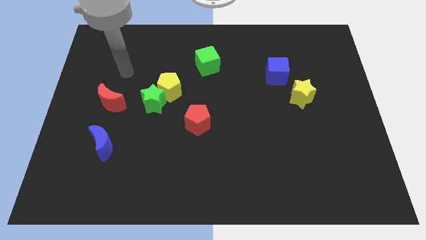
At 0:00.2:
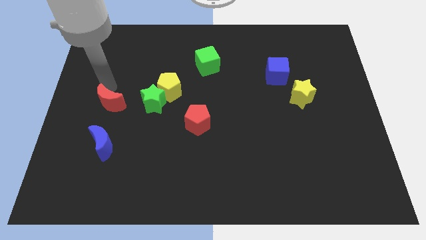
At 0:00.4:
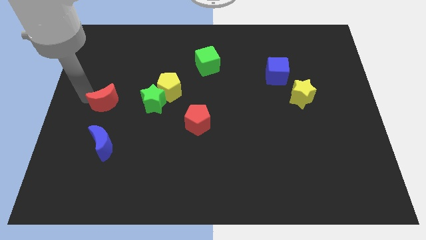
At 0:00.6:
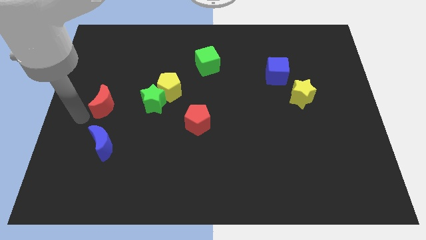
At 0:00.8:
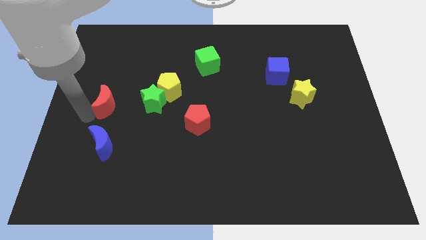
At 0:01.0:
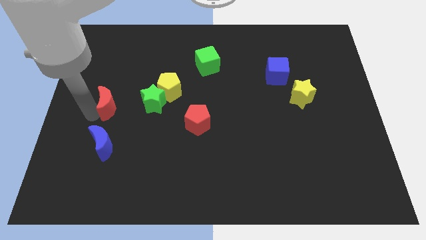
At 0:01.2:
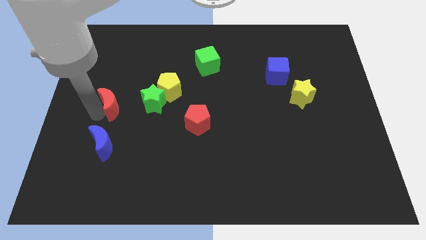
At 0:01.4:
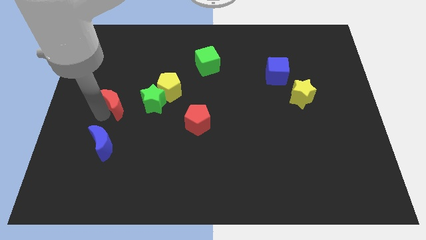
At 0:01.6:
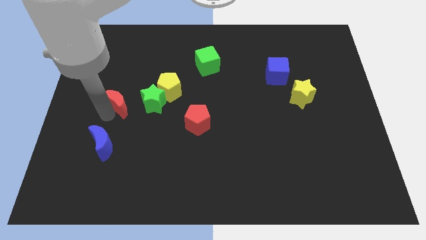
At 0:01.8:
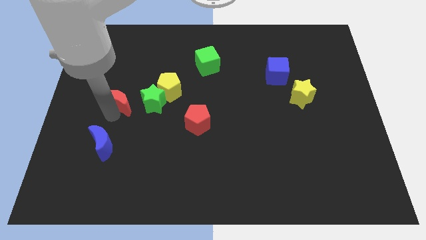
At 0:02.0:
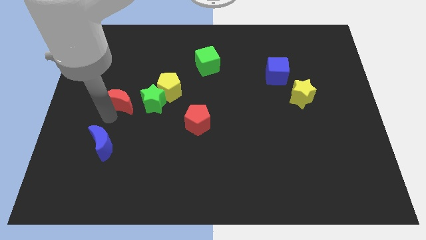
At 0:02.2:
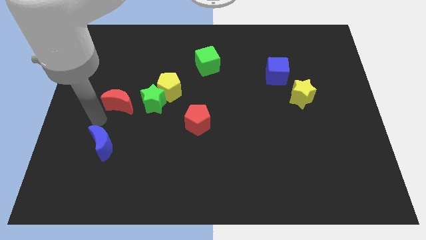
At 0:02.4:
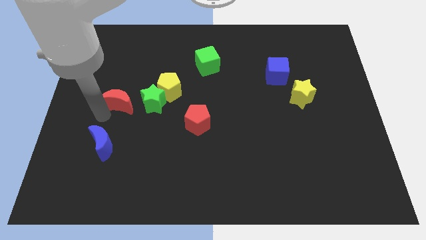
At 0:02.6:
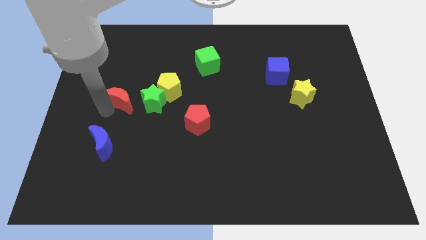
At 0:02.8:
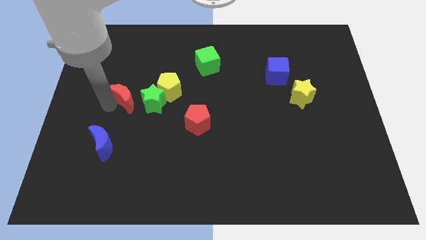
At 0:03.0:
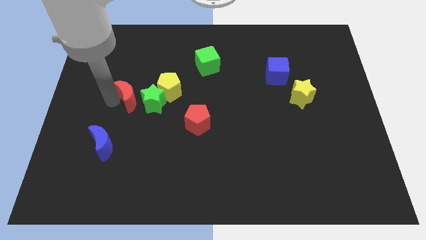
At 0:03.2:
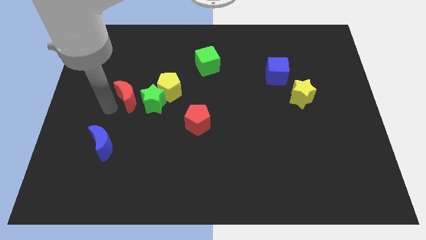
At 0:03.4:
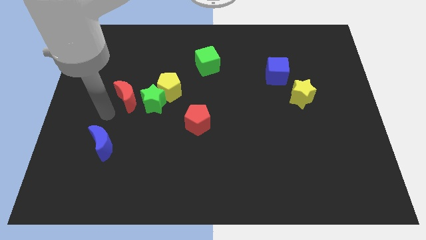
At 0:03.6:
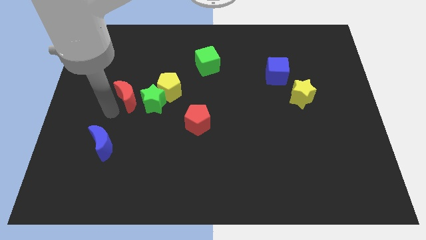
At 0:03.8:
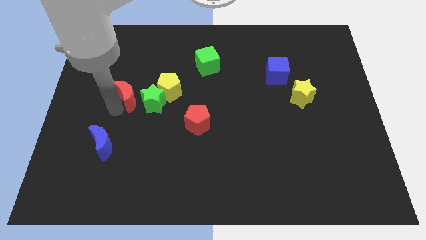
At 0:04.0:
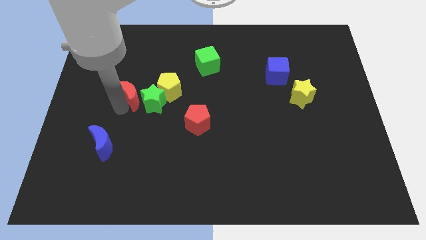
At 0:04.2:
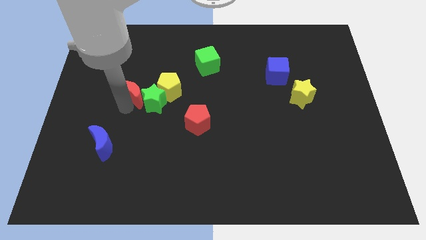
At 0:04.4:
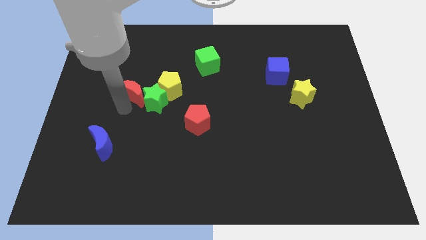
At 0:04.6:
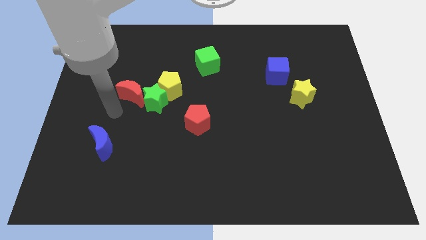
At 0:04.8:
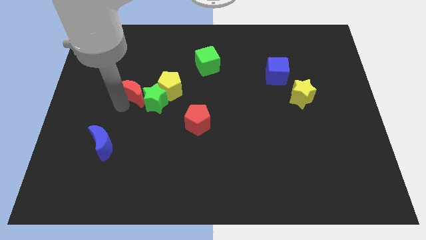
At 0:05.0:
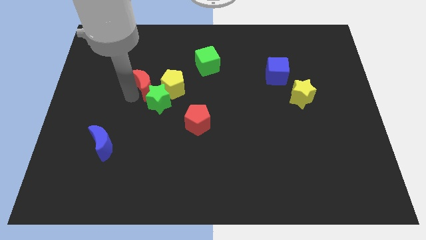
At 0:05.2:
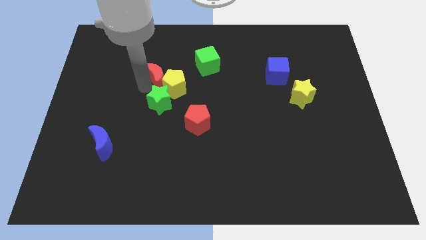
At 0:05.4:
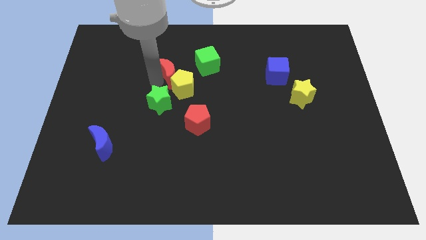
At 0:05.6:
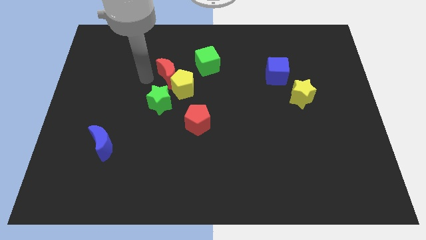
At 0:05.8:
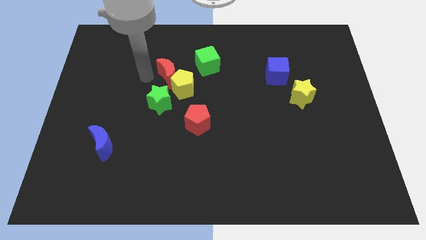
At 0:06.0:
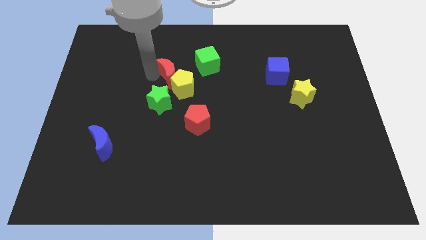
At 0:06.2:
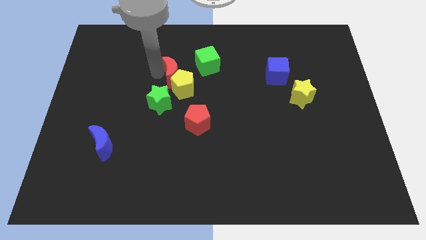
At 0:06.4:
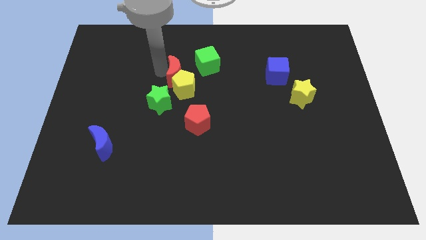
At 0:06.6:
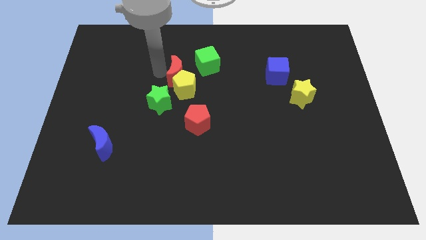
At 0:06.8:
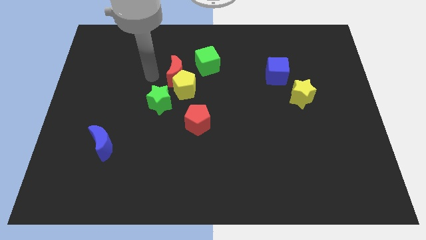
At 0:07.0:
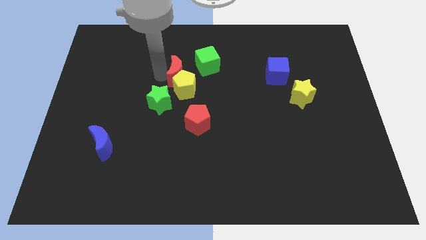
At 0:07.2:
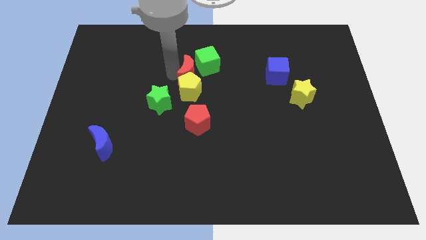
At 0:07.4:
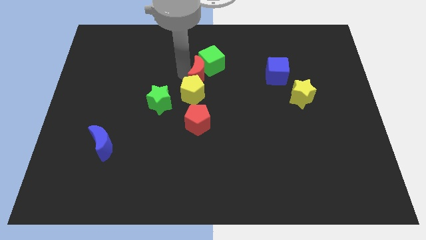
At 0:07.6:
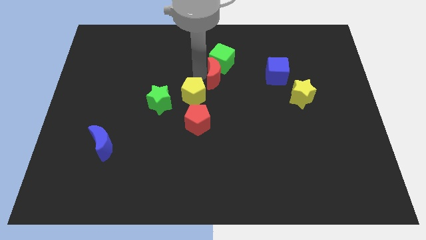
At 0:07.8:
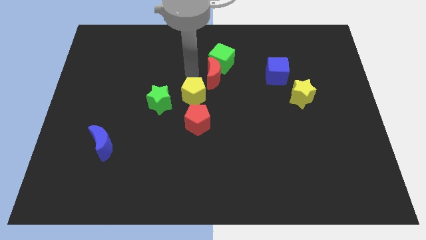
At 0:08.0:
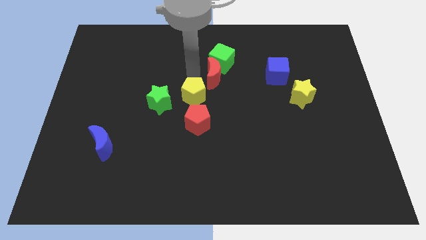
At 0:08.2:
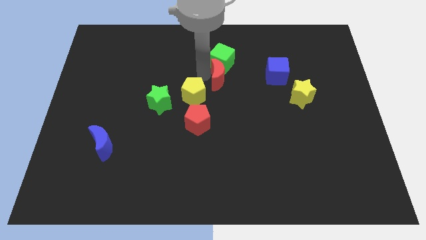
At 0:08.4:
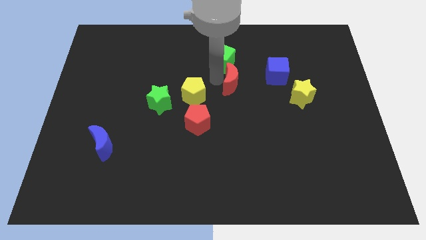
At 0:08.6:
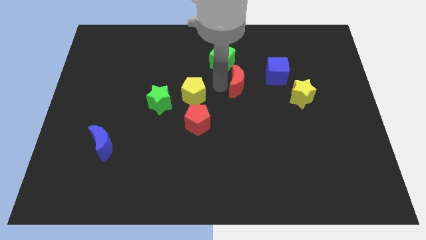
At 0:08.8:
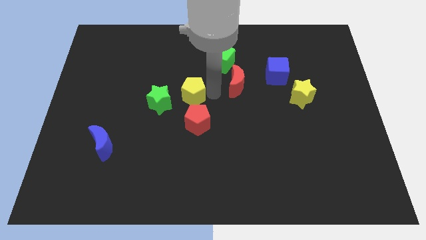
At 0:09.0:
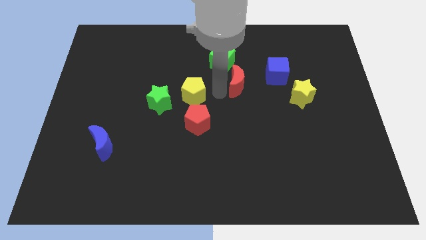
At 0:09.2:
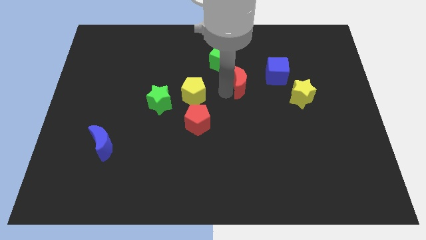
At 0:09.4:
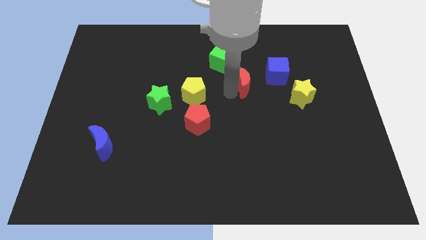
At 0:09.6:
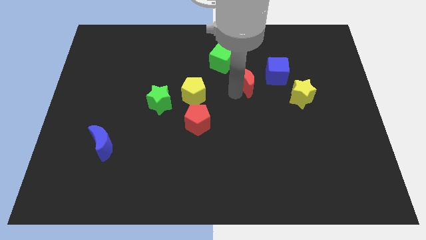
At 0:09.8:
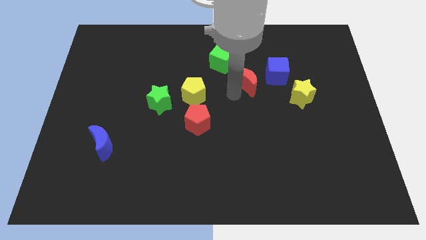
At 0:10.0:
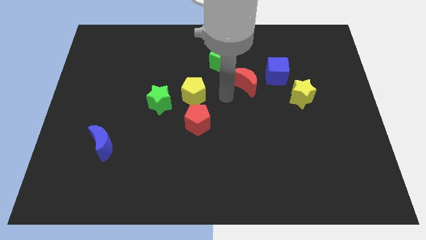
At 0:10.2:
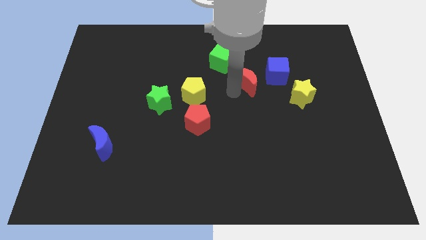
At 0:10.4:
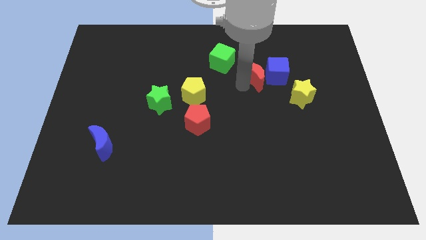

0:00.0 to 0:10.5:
push the red moon next to the blue cube

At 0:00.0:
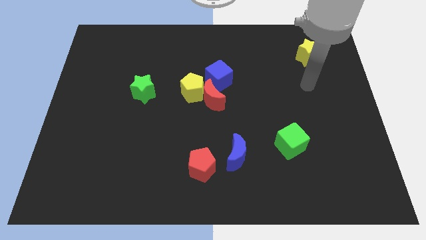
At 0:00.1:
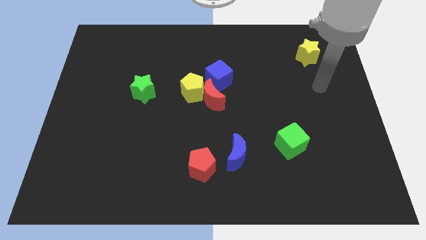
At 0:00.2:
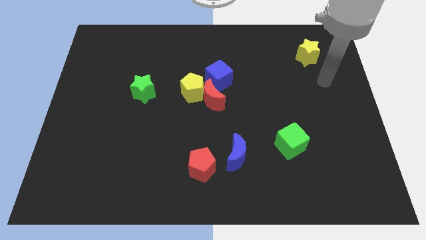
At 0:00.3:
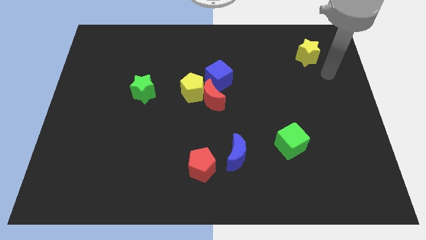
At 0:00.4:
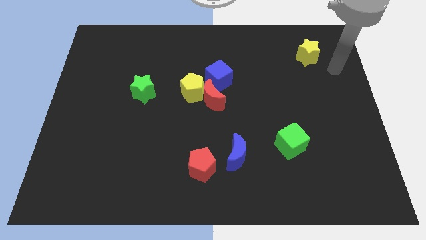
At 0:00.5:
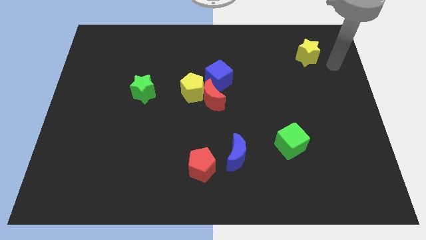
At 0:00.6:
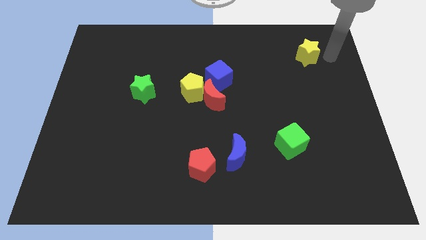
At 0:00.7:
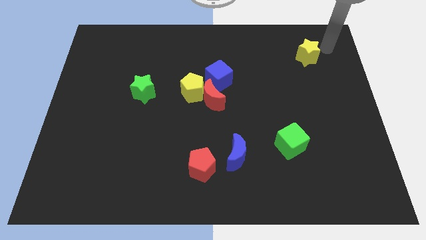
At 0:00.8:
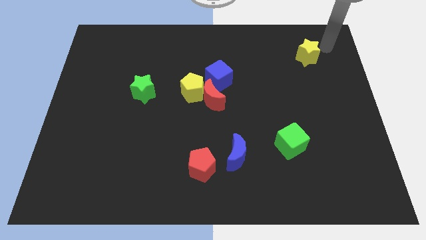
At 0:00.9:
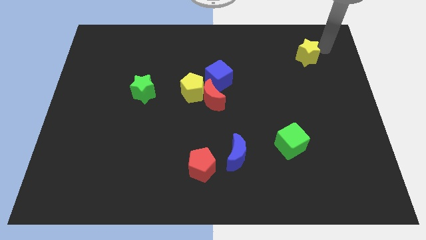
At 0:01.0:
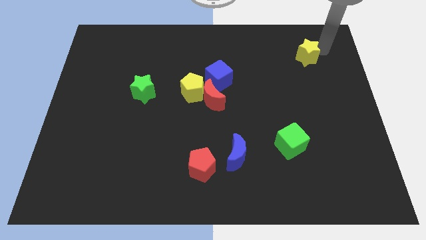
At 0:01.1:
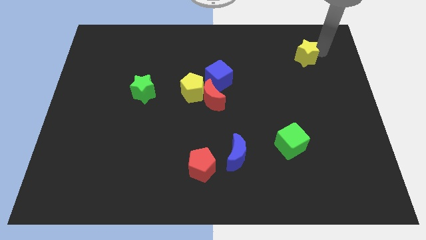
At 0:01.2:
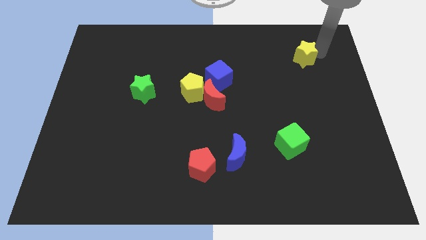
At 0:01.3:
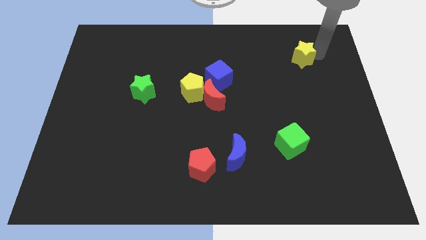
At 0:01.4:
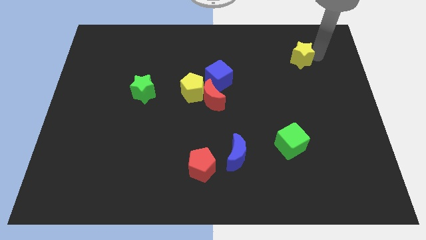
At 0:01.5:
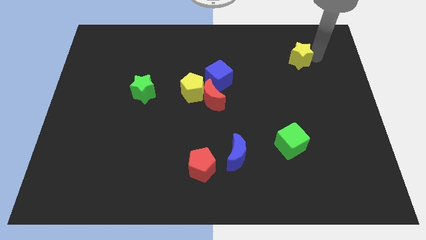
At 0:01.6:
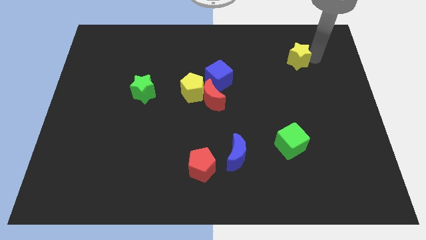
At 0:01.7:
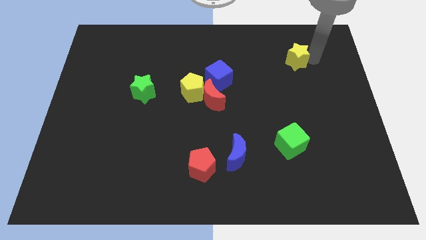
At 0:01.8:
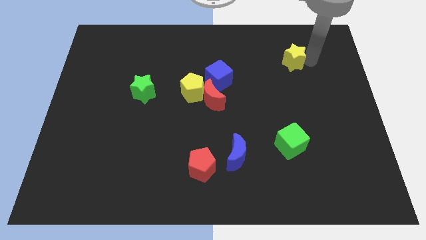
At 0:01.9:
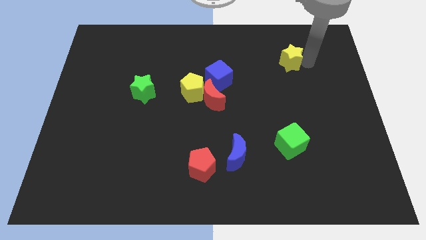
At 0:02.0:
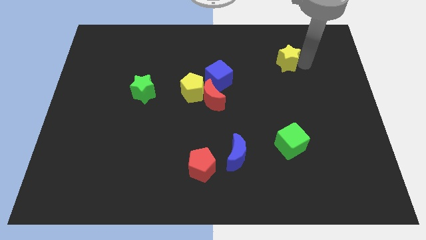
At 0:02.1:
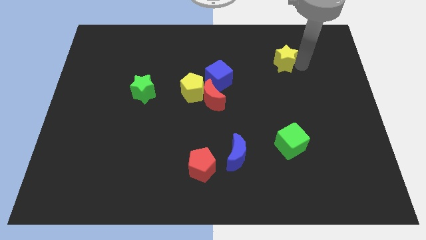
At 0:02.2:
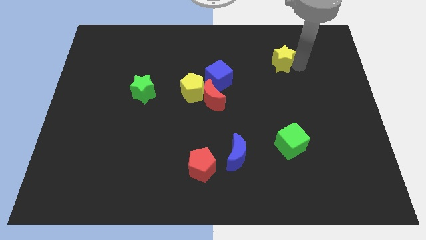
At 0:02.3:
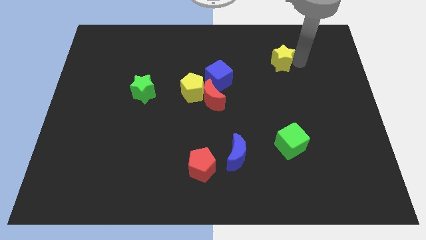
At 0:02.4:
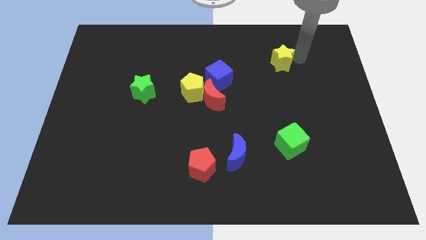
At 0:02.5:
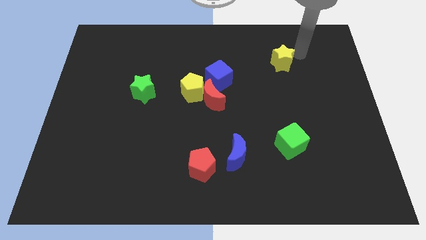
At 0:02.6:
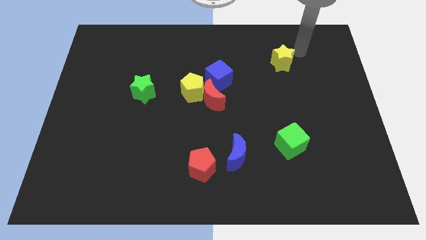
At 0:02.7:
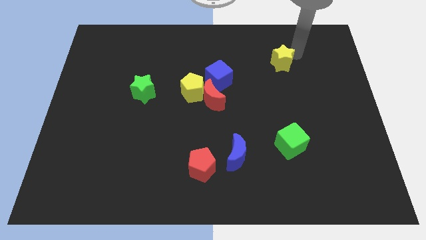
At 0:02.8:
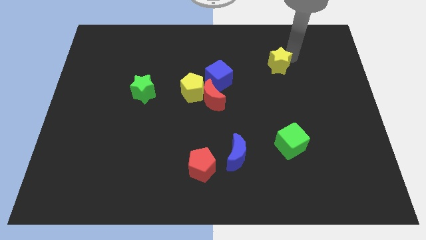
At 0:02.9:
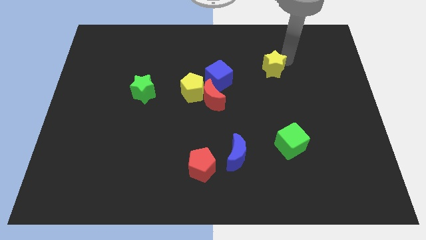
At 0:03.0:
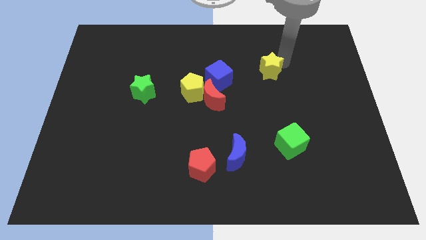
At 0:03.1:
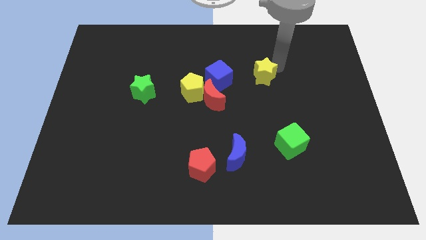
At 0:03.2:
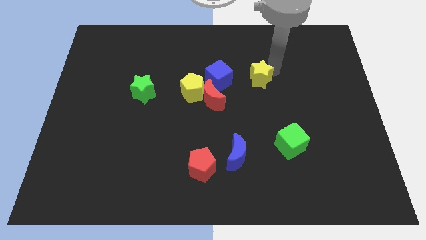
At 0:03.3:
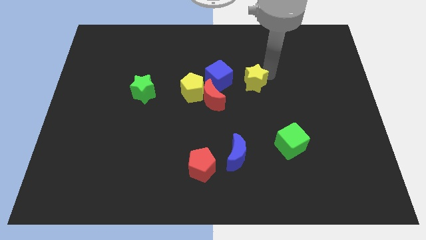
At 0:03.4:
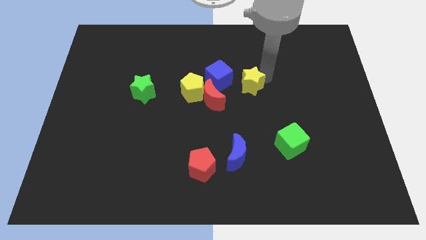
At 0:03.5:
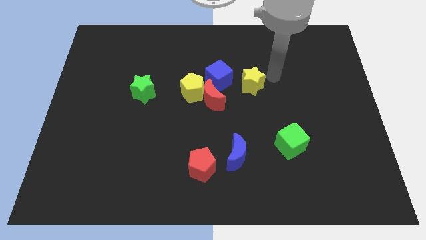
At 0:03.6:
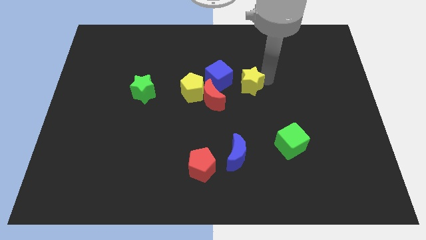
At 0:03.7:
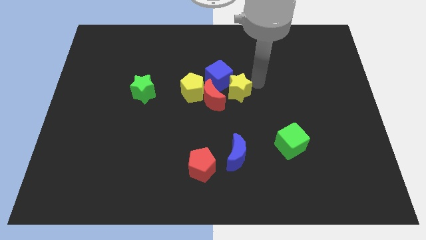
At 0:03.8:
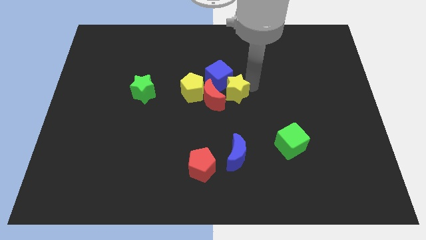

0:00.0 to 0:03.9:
slide the yellow star next to the red moon
